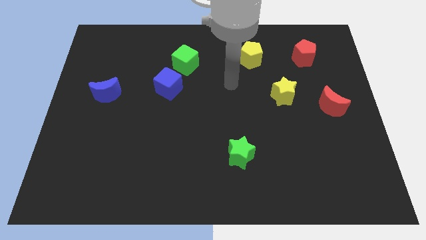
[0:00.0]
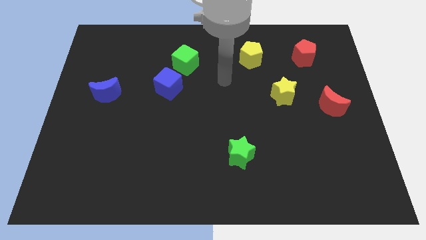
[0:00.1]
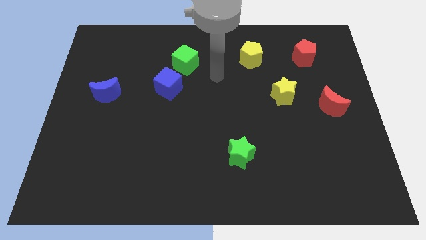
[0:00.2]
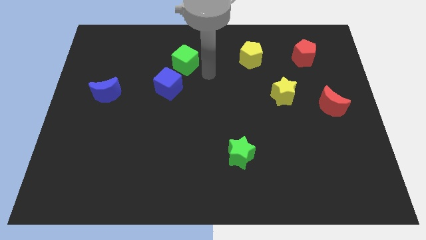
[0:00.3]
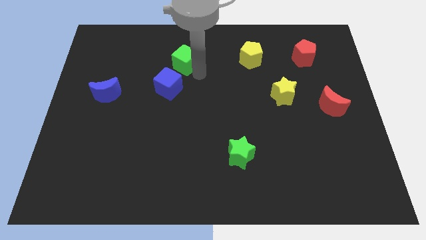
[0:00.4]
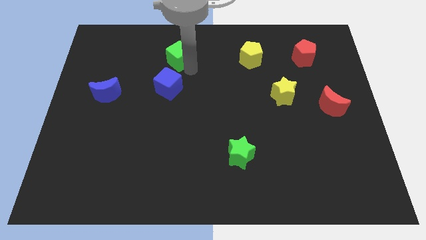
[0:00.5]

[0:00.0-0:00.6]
pull the blue cube apart from the green cube

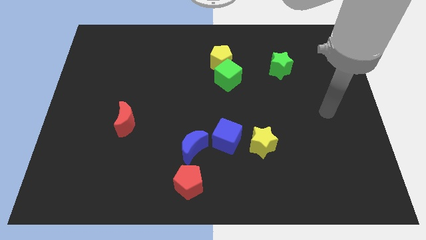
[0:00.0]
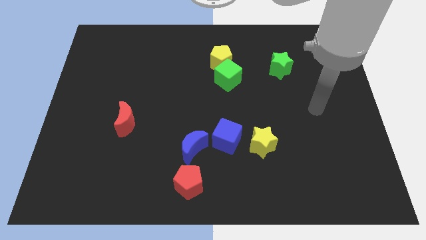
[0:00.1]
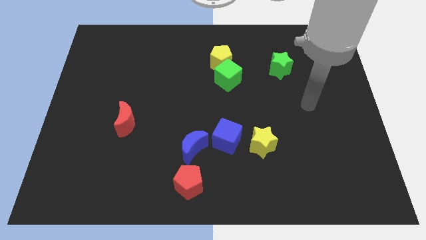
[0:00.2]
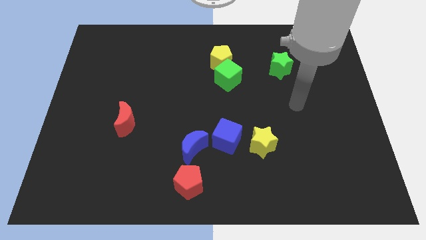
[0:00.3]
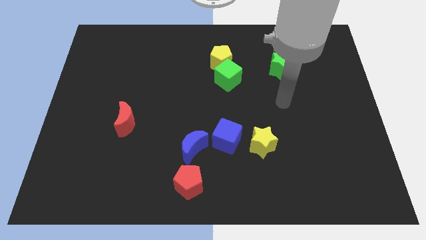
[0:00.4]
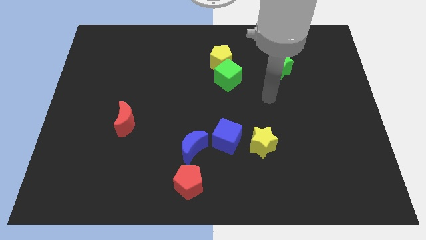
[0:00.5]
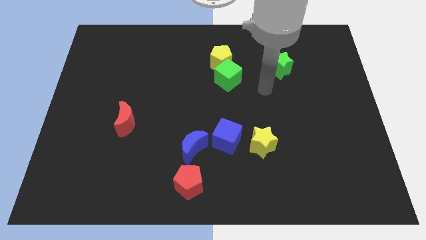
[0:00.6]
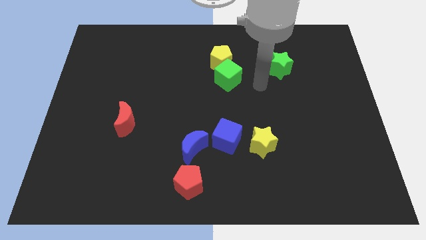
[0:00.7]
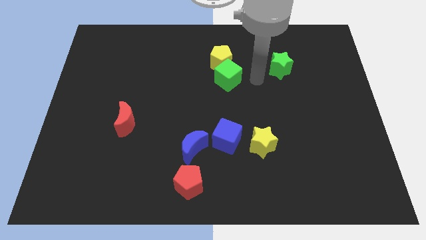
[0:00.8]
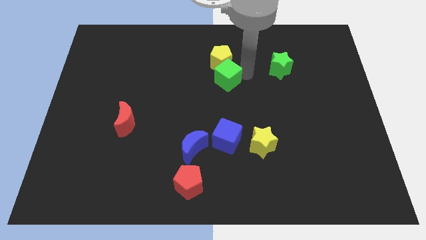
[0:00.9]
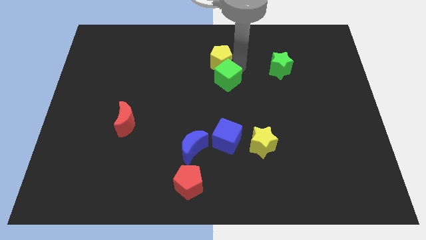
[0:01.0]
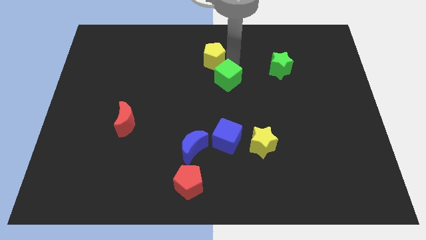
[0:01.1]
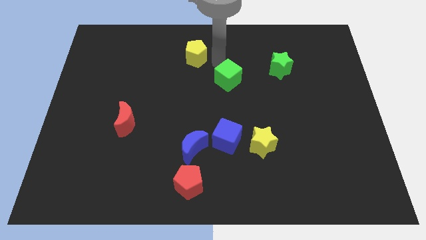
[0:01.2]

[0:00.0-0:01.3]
pull the green cube apart from the yellow pentagon

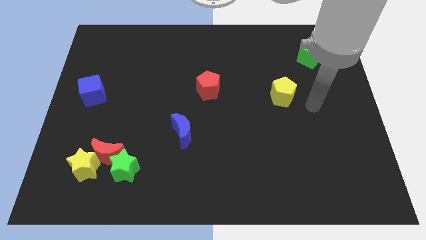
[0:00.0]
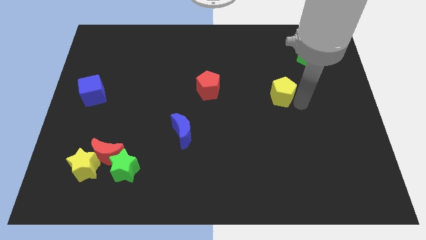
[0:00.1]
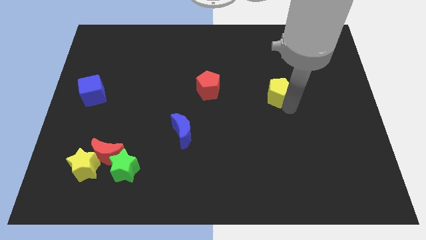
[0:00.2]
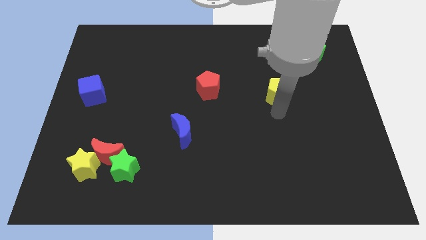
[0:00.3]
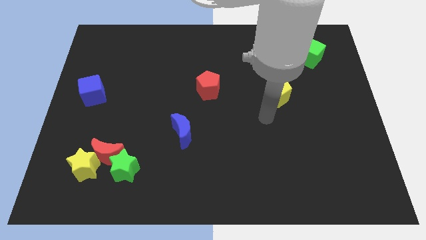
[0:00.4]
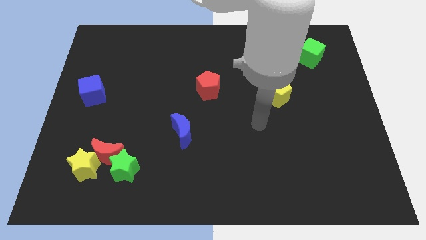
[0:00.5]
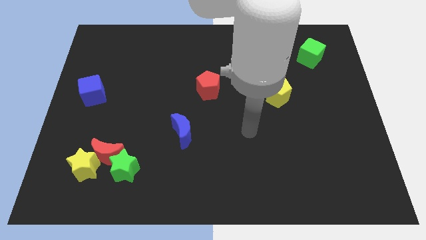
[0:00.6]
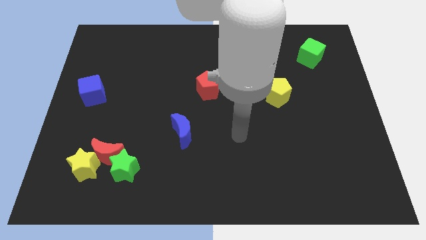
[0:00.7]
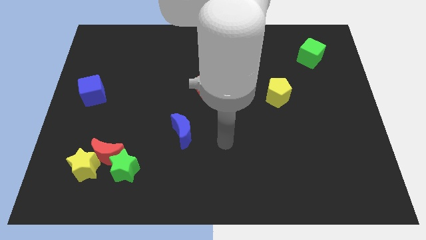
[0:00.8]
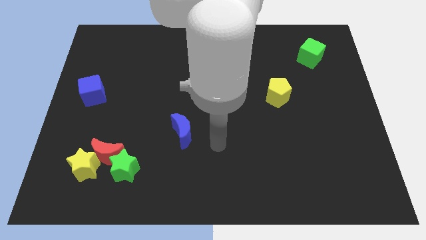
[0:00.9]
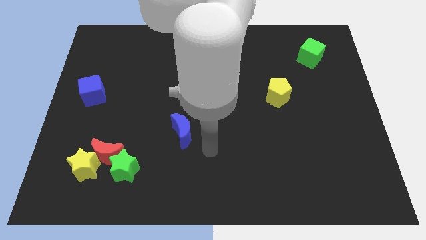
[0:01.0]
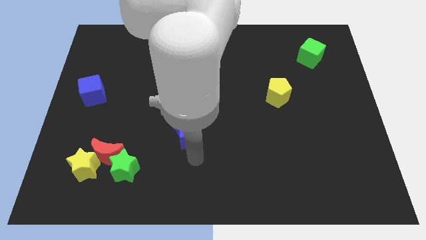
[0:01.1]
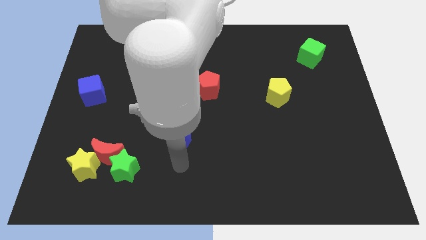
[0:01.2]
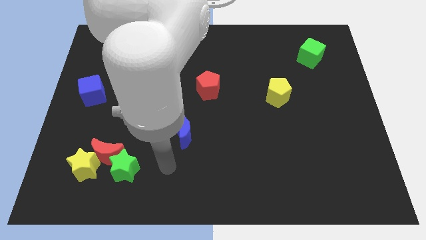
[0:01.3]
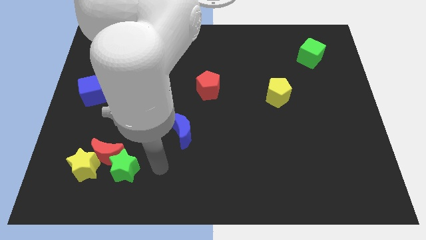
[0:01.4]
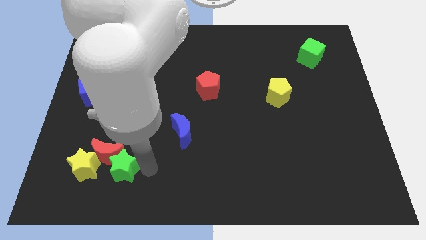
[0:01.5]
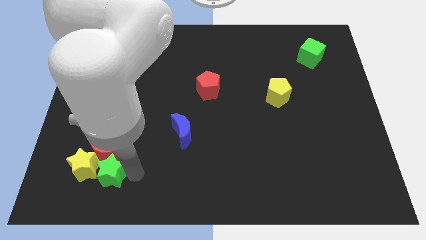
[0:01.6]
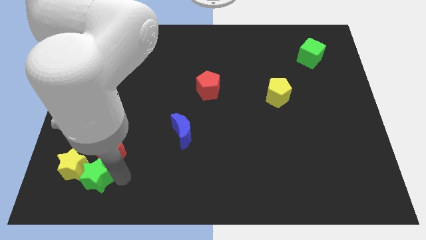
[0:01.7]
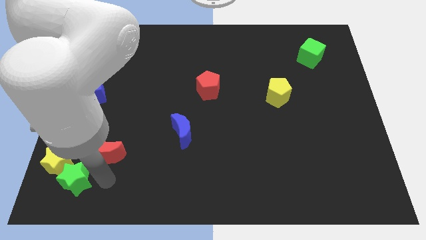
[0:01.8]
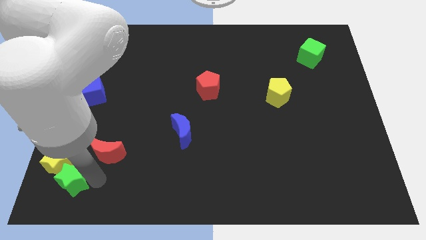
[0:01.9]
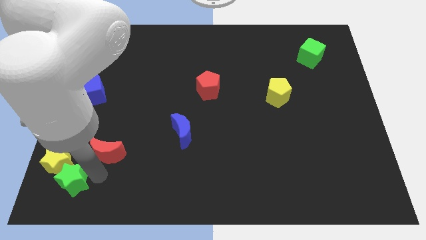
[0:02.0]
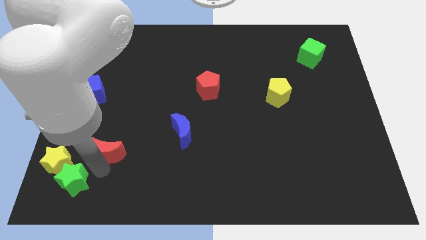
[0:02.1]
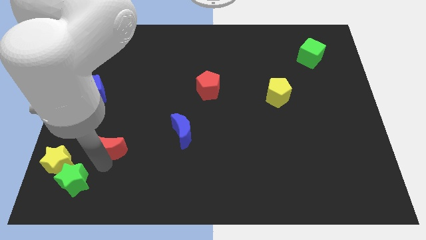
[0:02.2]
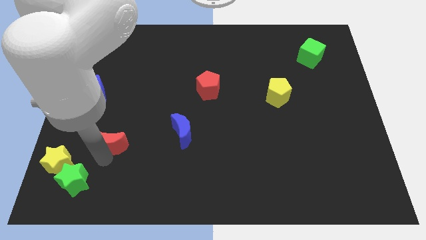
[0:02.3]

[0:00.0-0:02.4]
move the red moon away from the green star and yellow star

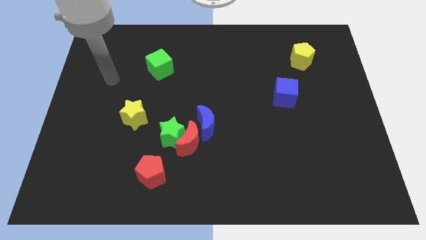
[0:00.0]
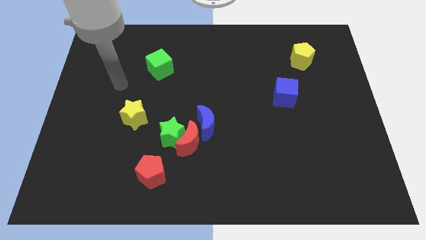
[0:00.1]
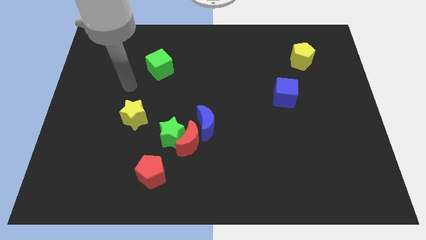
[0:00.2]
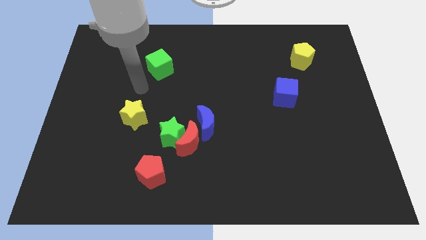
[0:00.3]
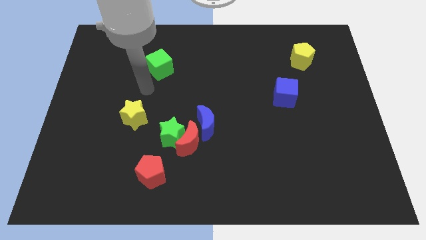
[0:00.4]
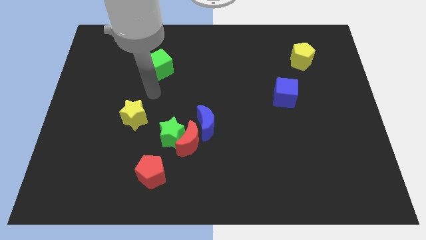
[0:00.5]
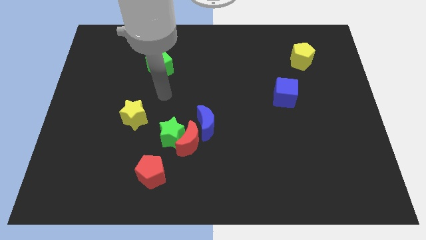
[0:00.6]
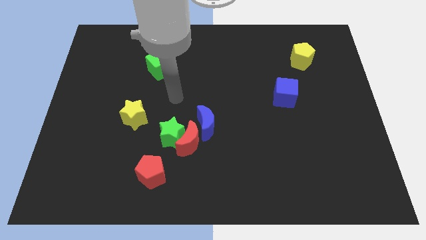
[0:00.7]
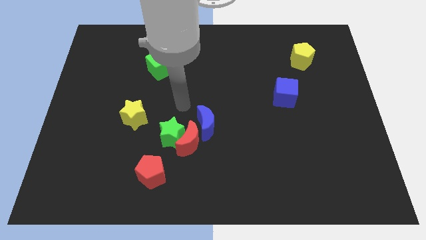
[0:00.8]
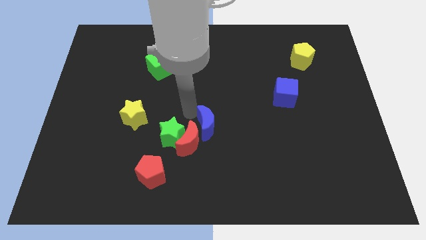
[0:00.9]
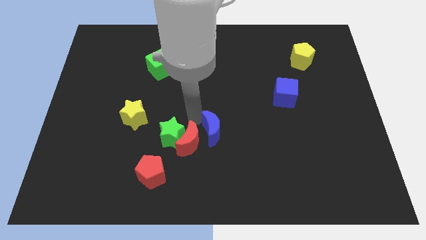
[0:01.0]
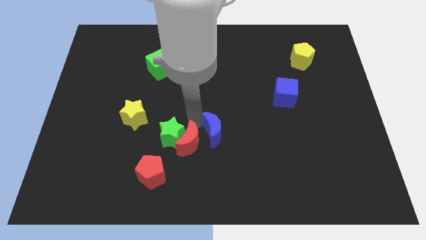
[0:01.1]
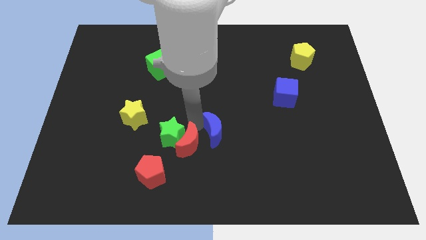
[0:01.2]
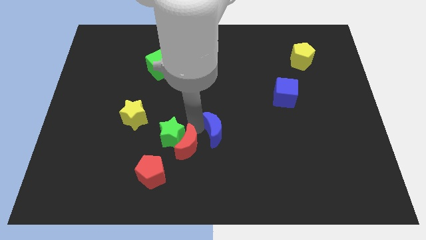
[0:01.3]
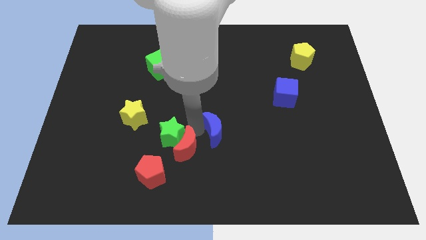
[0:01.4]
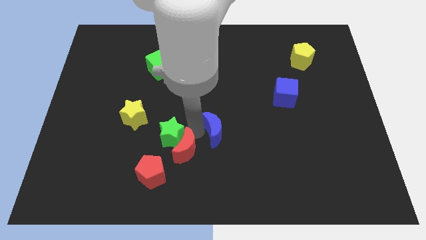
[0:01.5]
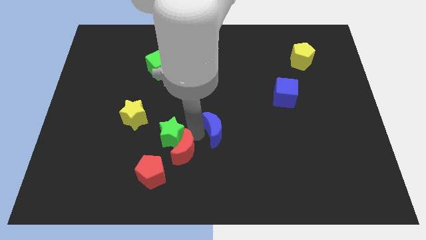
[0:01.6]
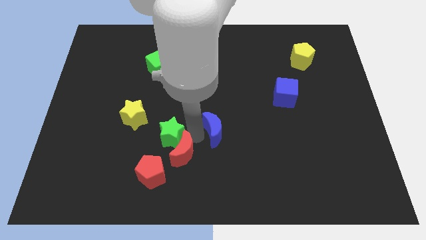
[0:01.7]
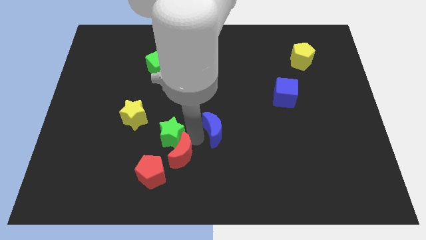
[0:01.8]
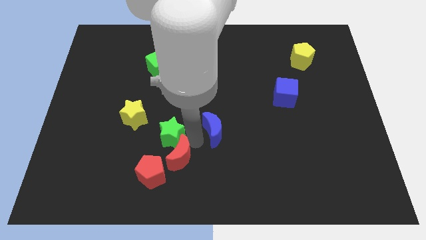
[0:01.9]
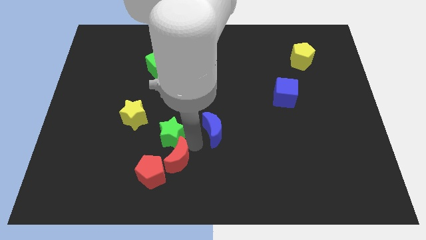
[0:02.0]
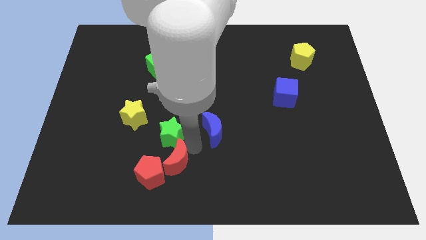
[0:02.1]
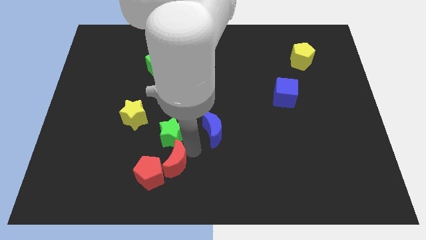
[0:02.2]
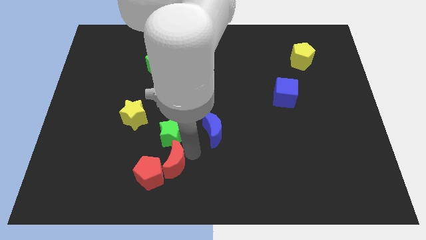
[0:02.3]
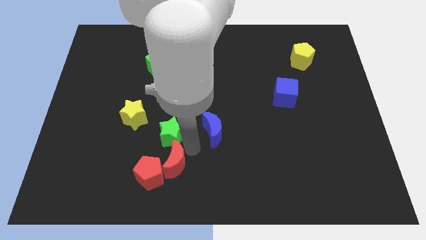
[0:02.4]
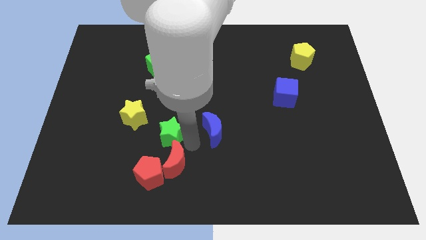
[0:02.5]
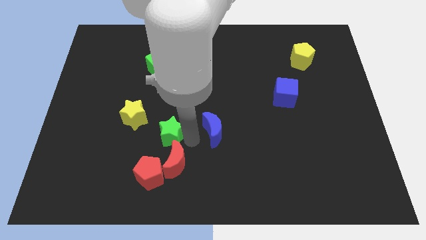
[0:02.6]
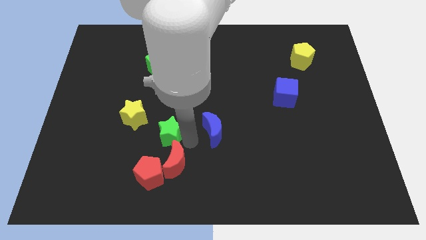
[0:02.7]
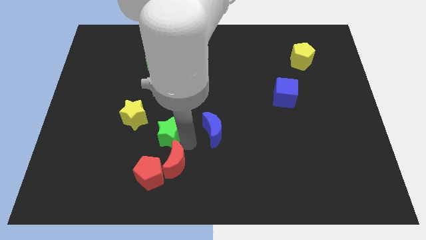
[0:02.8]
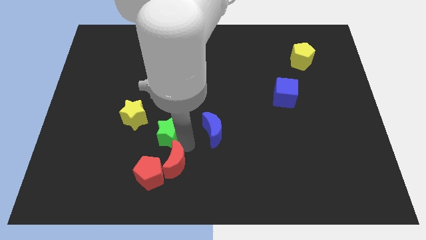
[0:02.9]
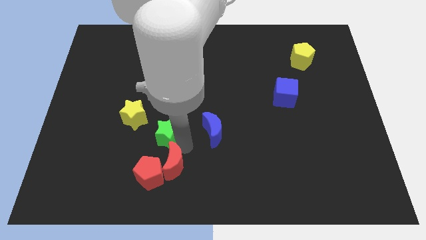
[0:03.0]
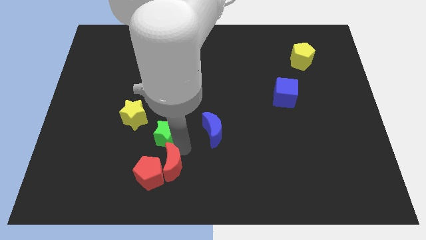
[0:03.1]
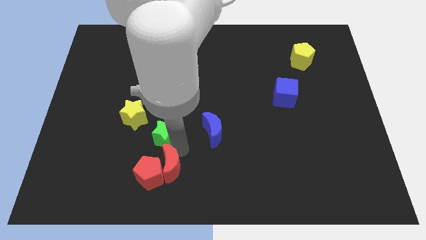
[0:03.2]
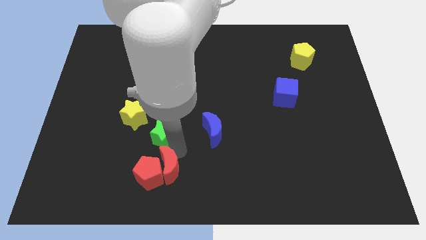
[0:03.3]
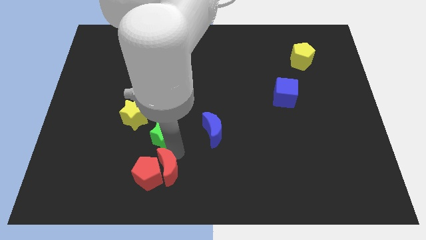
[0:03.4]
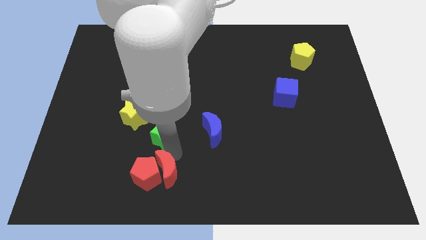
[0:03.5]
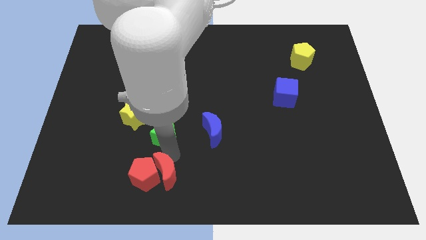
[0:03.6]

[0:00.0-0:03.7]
pull the red moon apart from the green star and blue moon

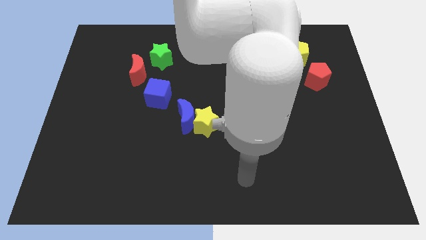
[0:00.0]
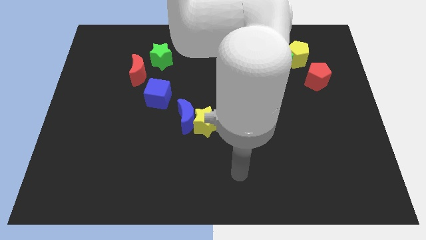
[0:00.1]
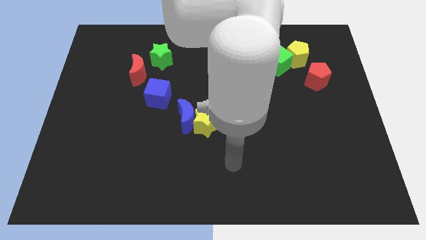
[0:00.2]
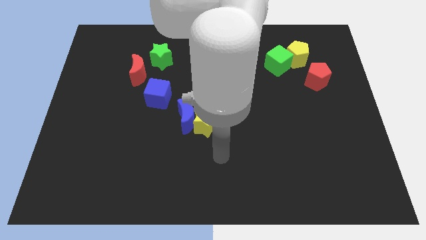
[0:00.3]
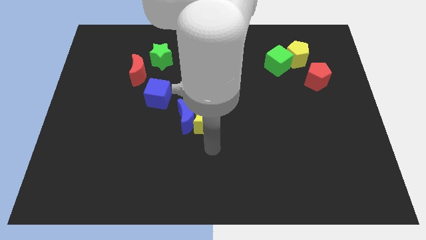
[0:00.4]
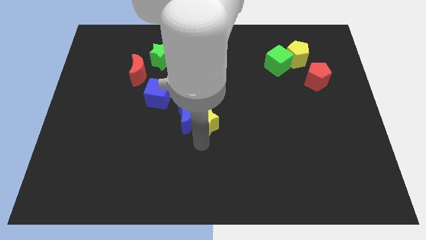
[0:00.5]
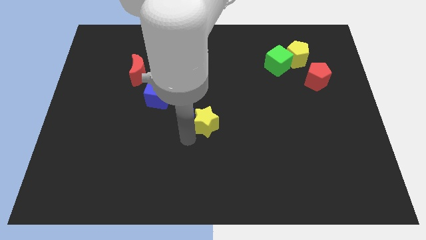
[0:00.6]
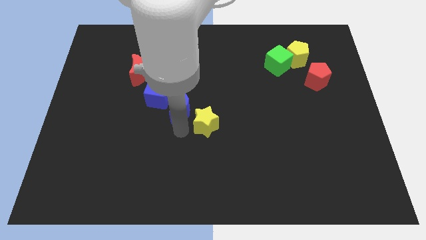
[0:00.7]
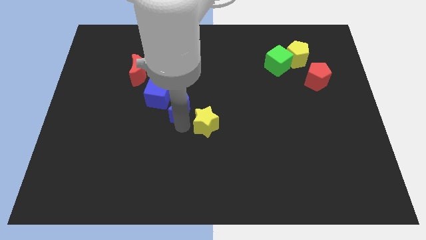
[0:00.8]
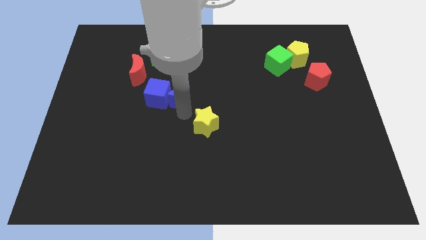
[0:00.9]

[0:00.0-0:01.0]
move the yellow star away from the blue moon

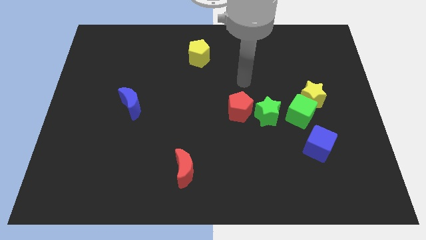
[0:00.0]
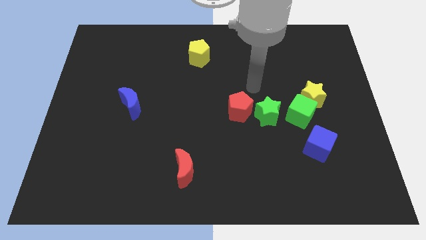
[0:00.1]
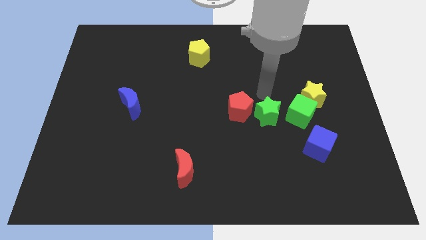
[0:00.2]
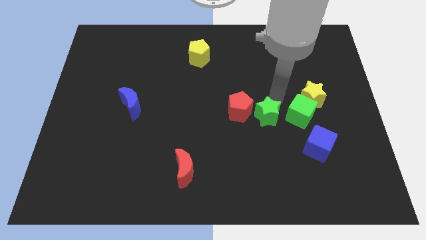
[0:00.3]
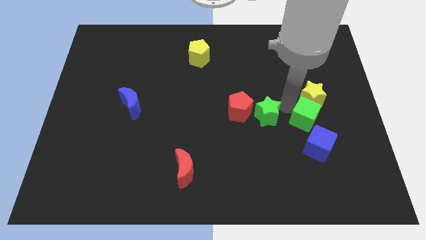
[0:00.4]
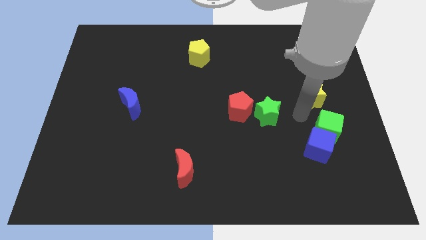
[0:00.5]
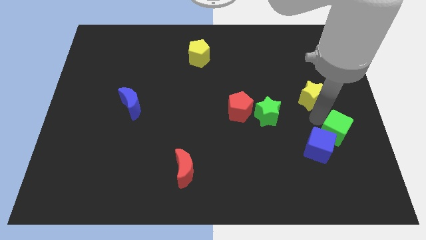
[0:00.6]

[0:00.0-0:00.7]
pull the yellow star apart from the green cube
